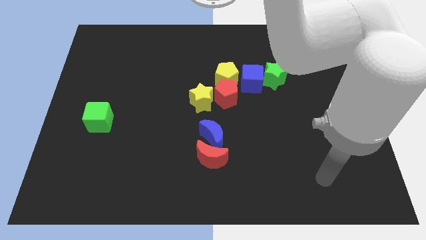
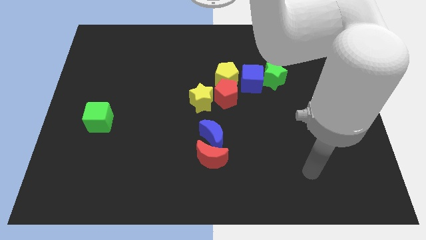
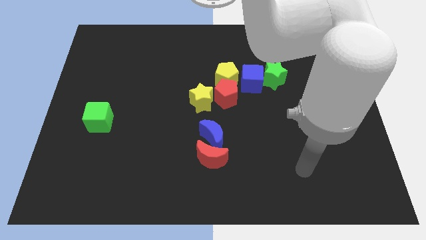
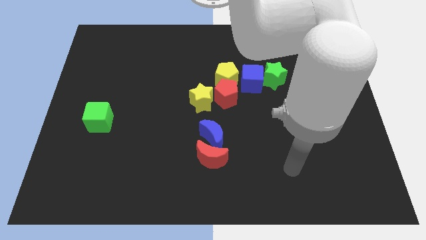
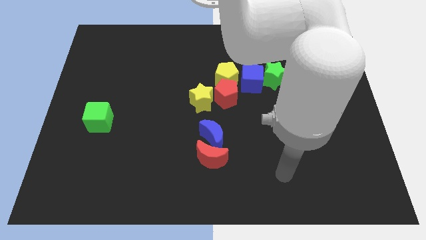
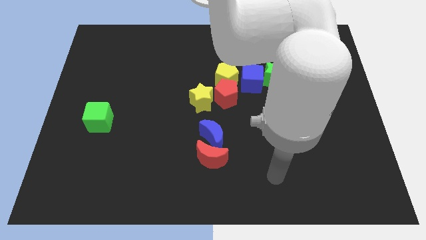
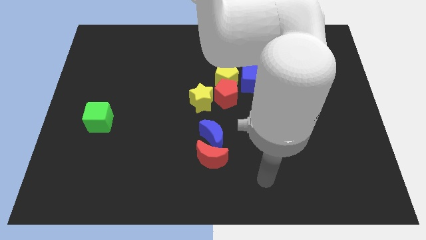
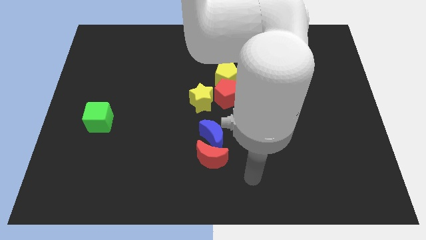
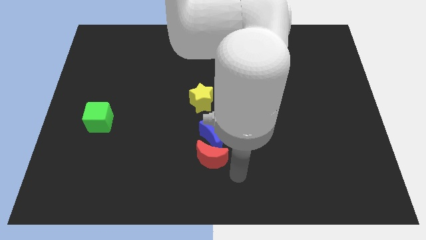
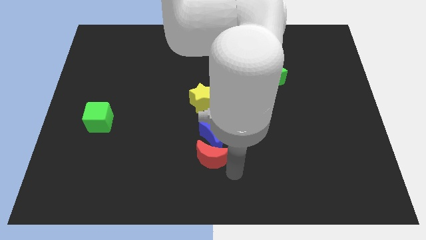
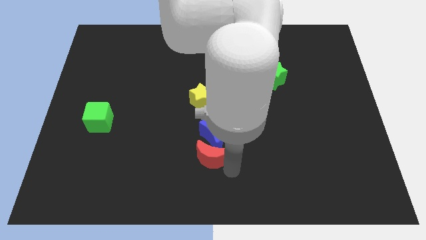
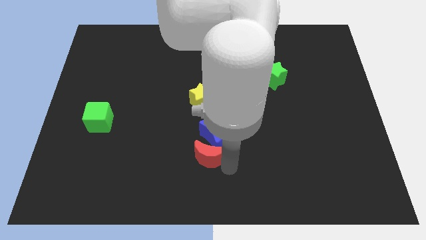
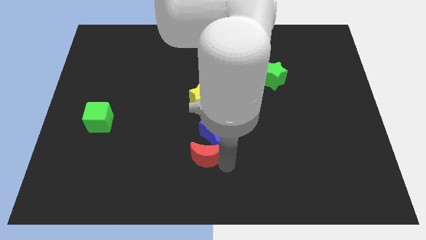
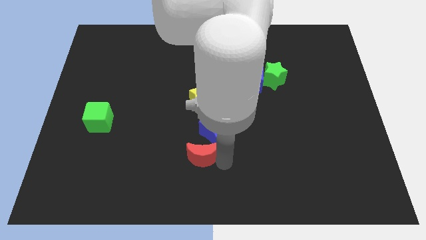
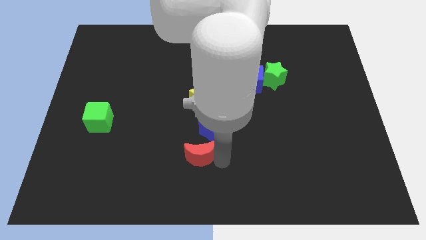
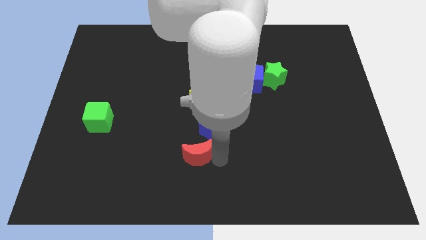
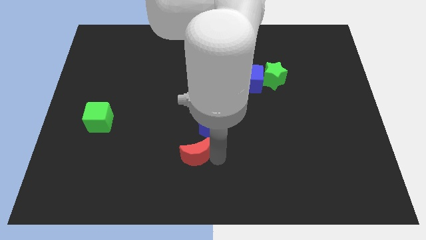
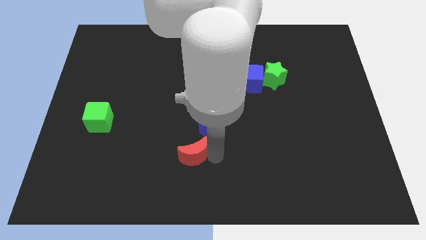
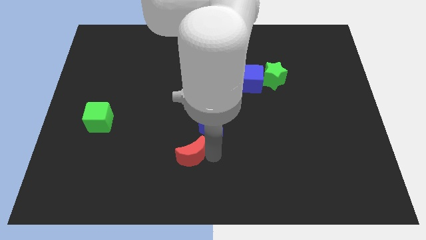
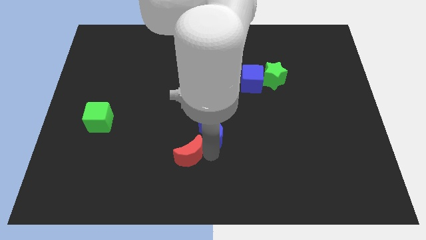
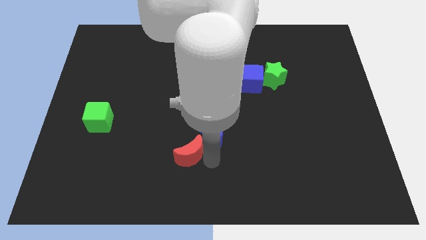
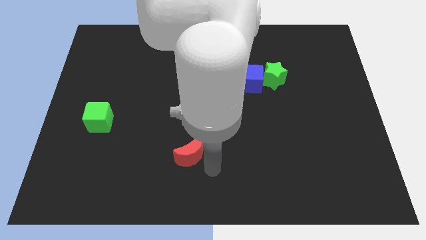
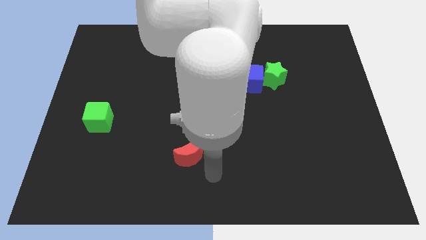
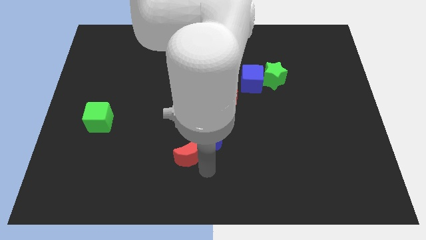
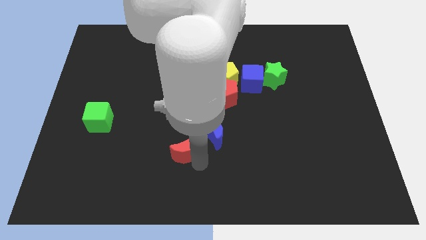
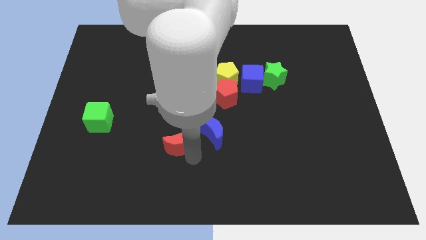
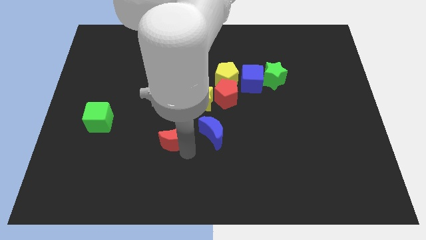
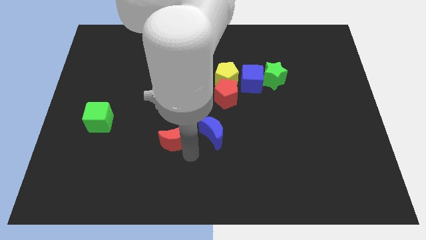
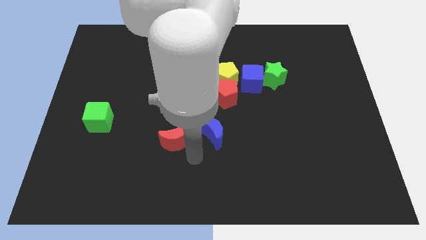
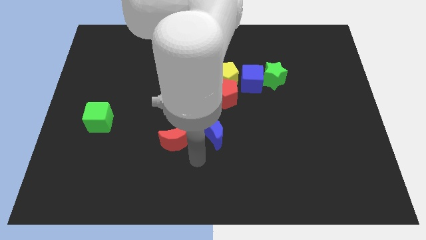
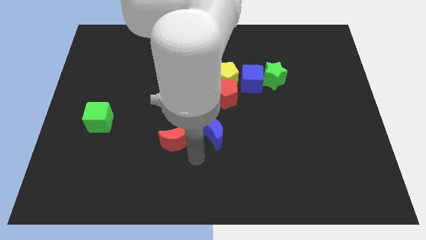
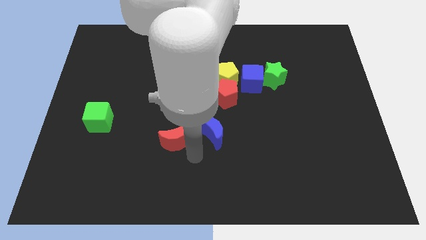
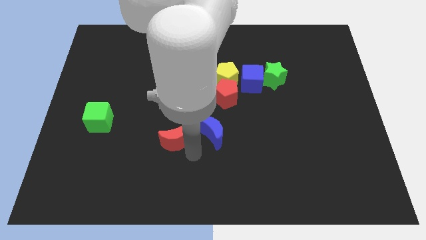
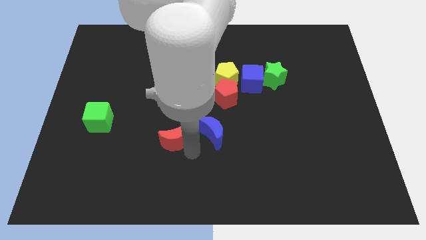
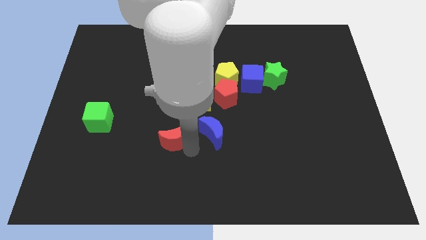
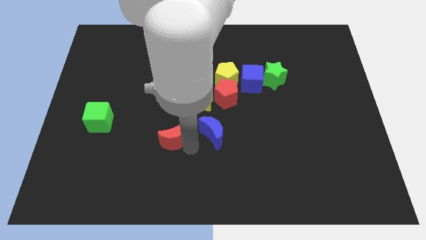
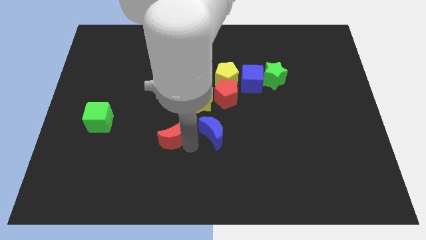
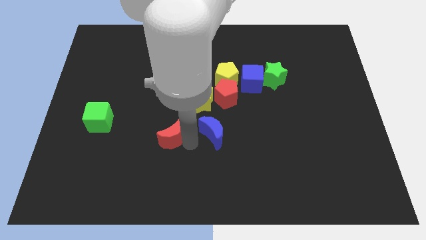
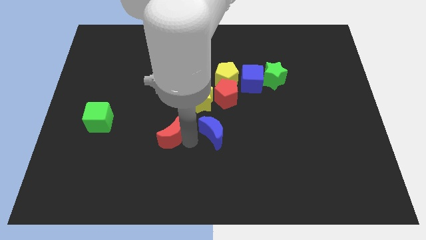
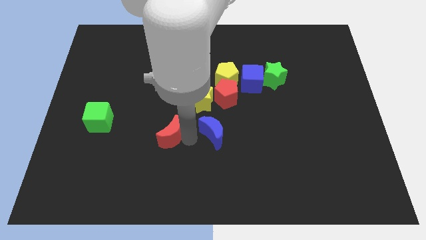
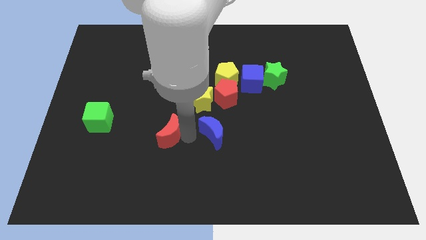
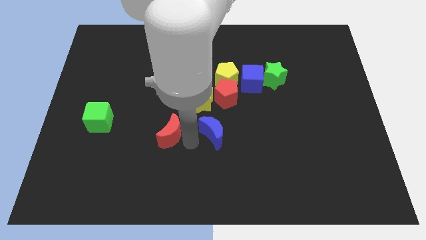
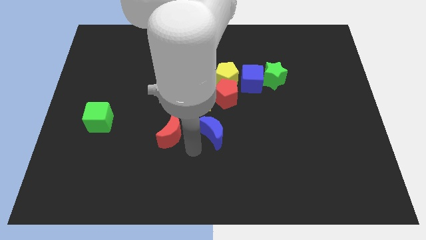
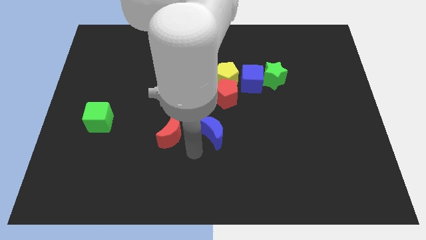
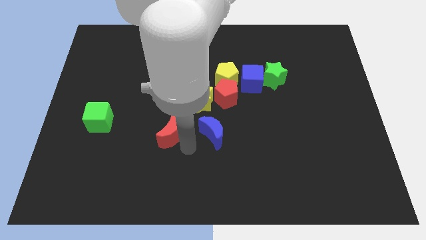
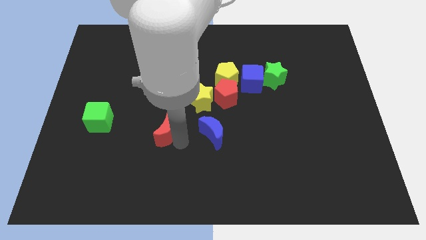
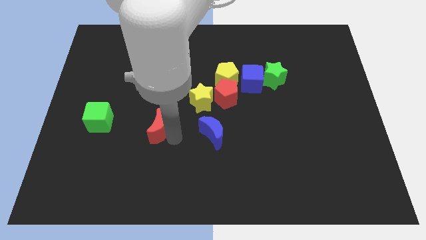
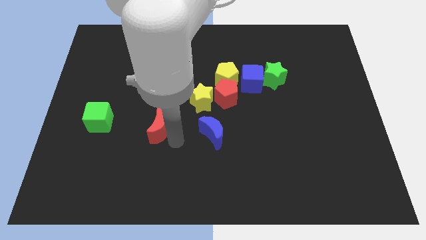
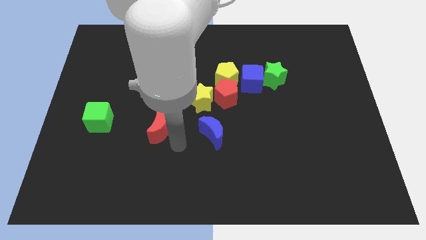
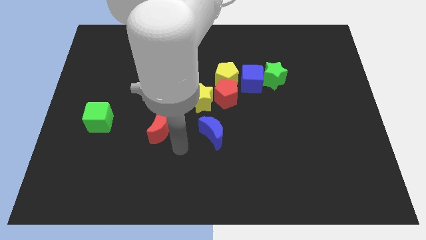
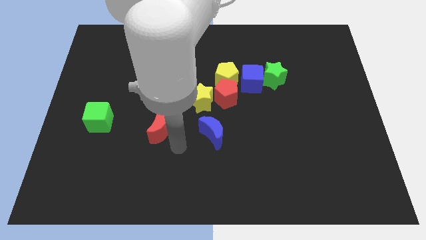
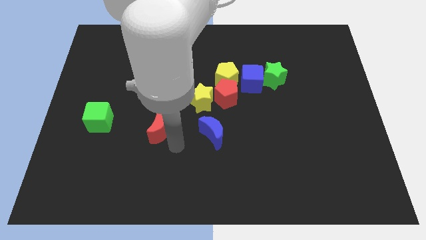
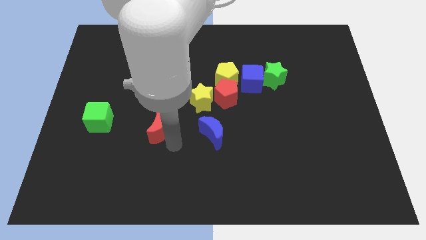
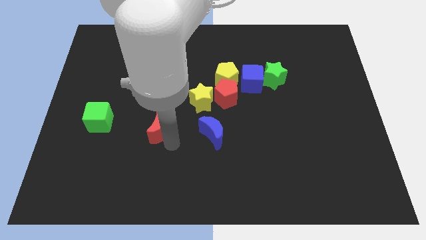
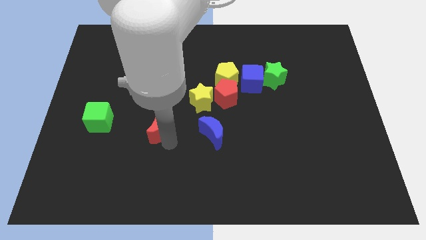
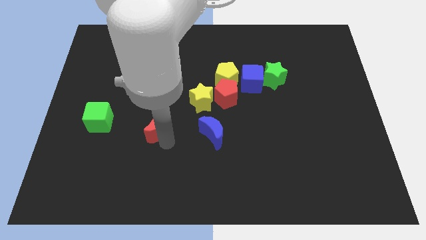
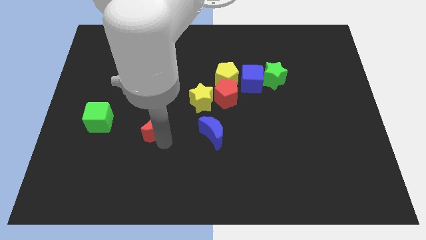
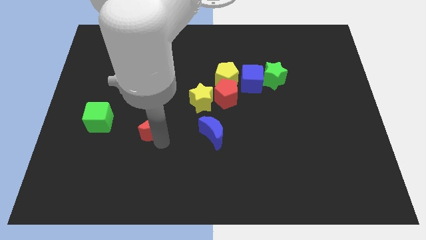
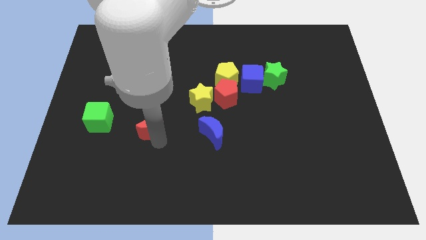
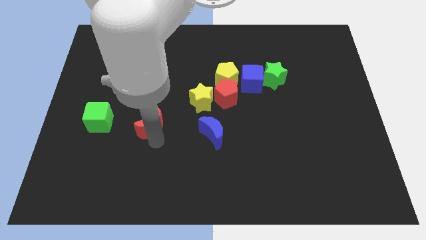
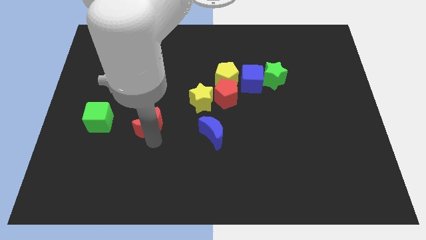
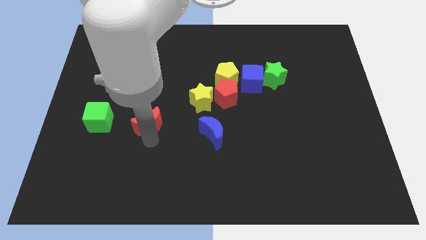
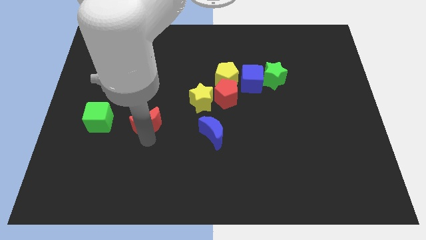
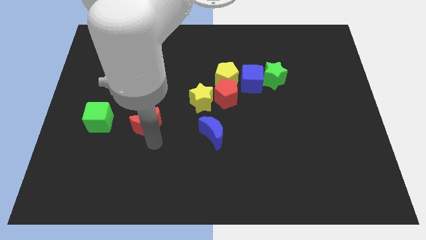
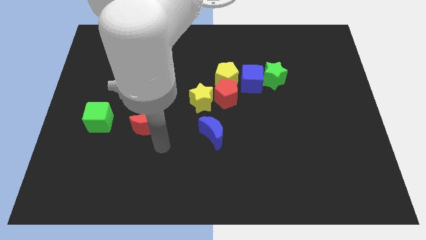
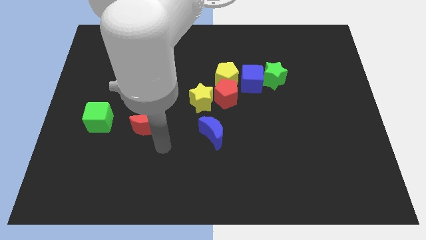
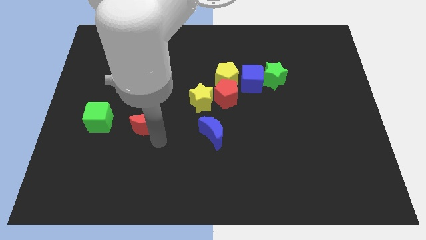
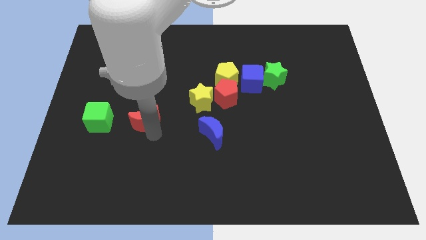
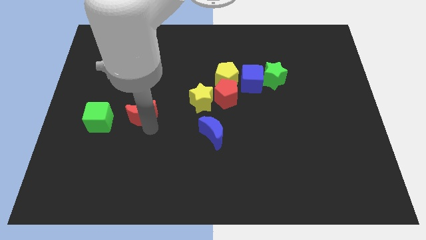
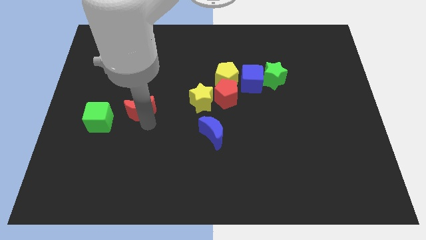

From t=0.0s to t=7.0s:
move the red moon up and left diagonally

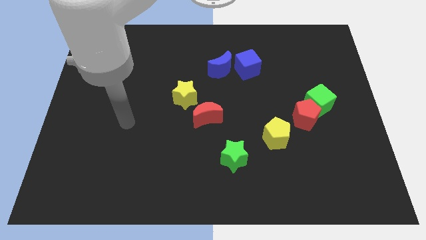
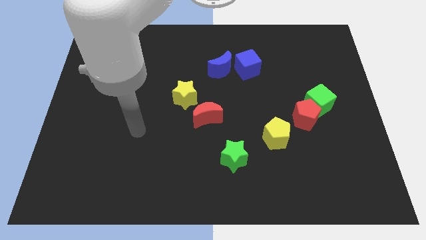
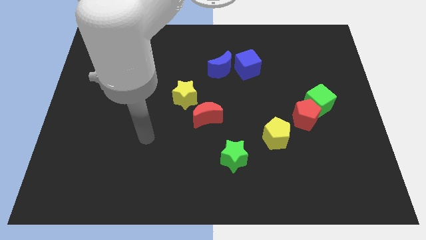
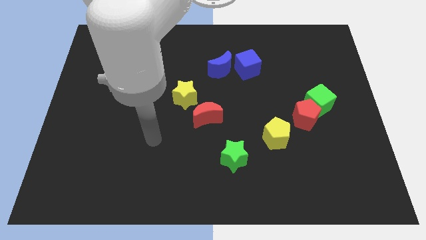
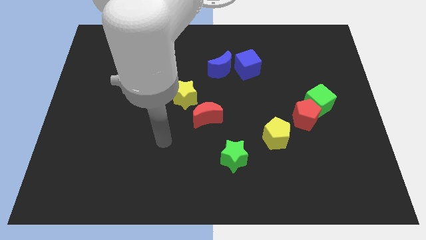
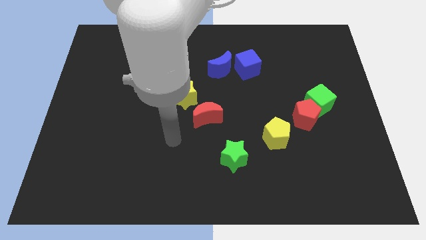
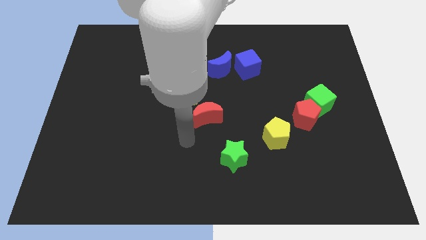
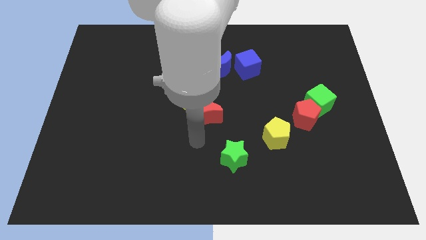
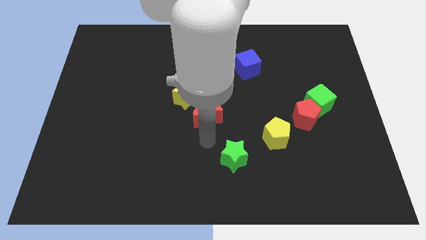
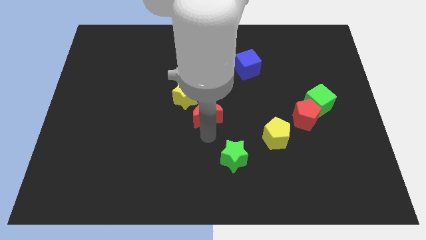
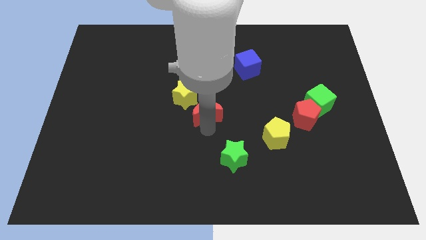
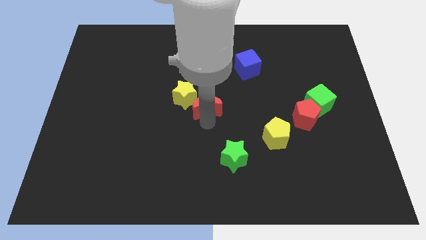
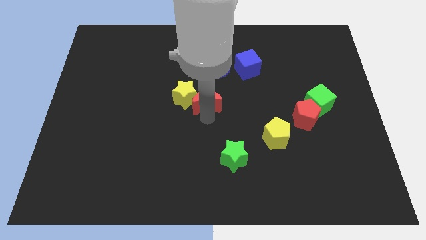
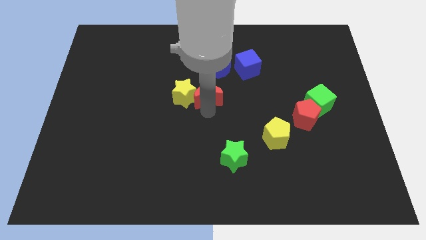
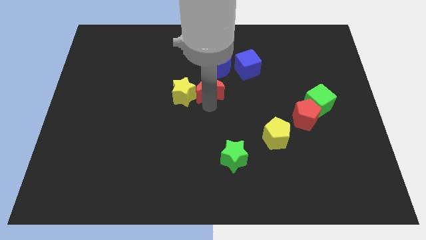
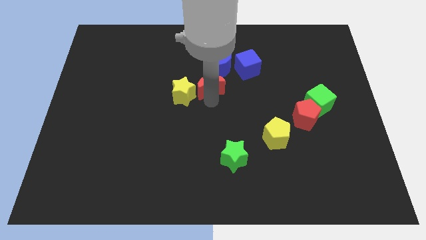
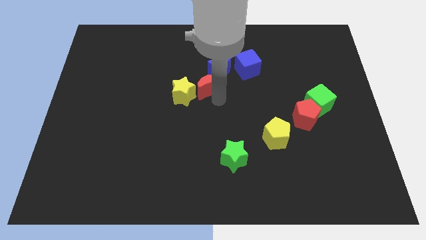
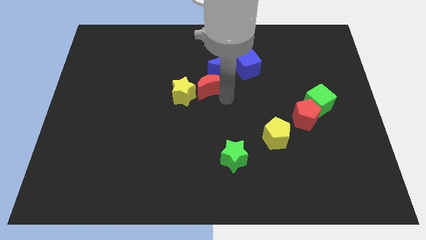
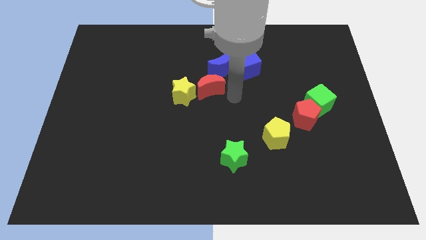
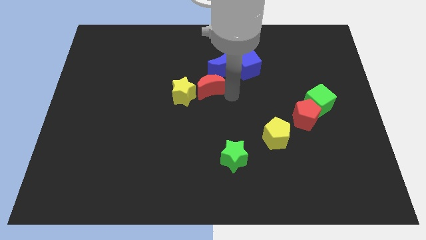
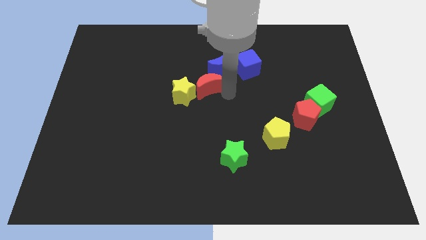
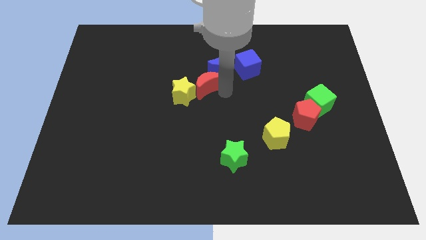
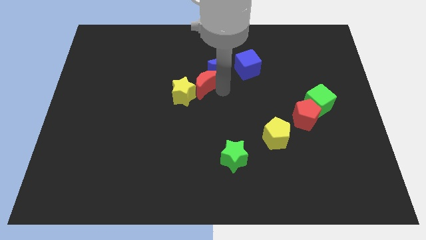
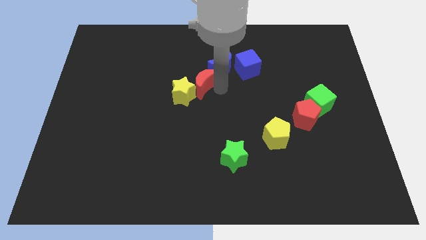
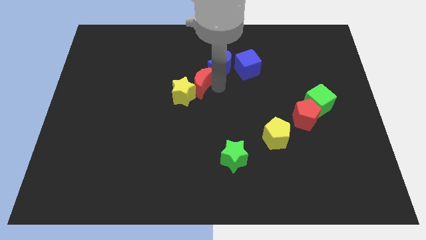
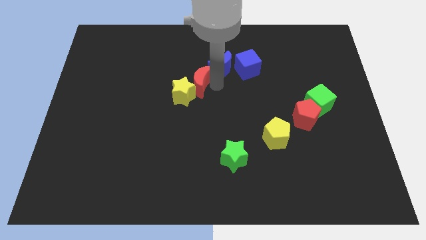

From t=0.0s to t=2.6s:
slide the red moon a little upwards and to the left
